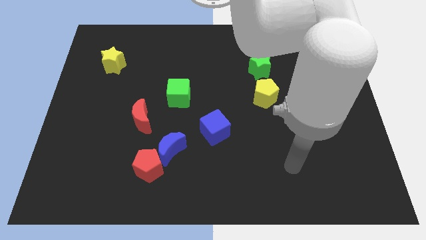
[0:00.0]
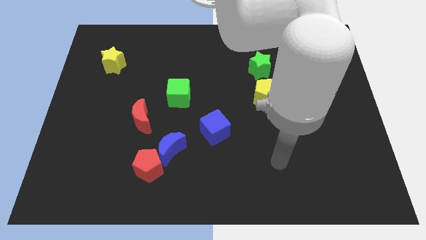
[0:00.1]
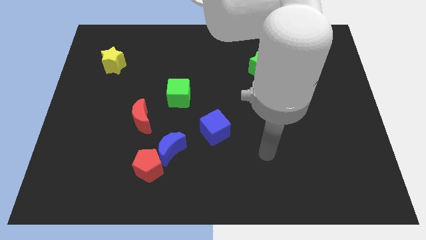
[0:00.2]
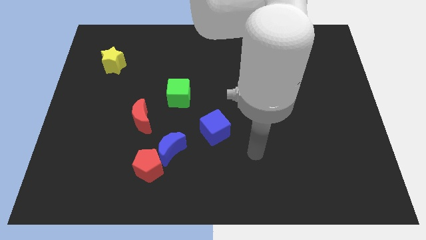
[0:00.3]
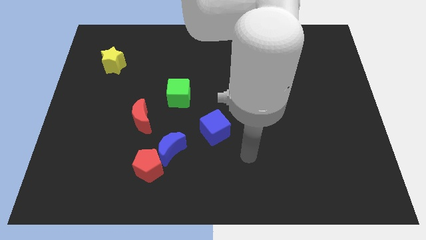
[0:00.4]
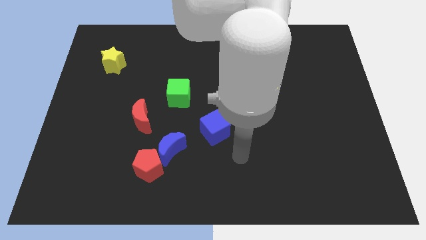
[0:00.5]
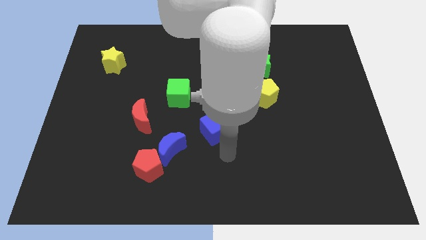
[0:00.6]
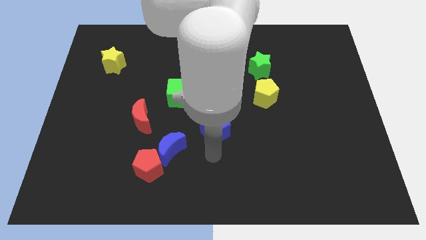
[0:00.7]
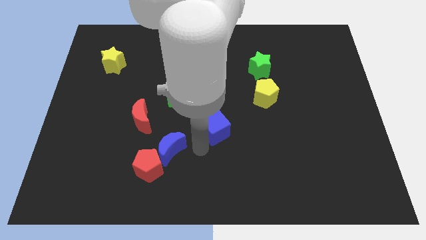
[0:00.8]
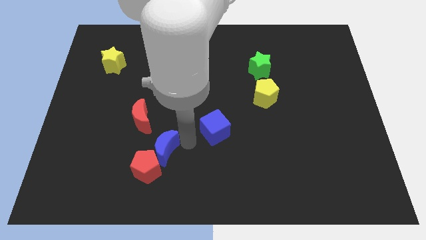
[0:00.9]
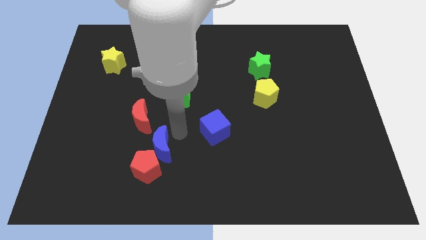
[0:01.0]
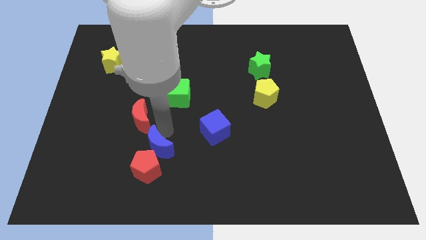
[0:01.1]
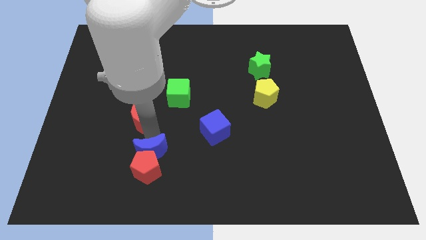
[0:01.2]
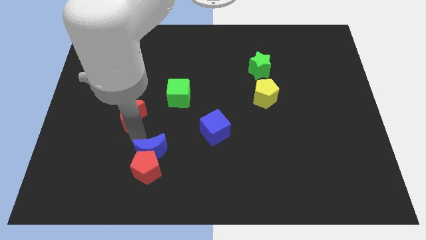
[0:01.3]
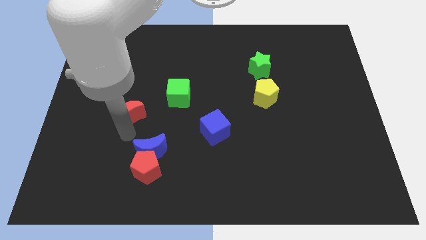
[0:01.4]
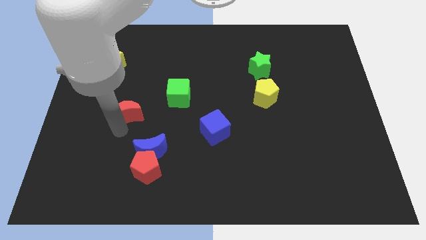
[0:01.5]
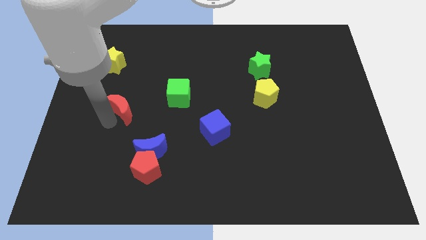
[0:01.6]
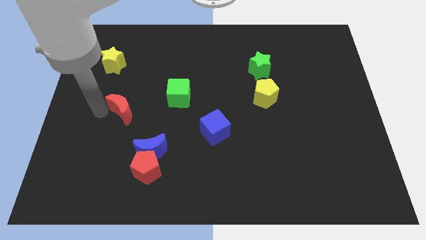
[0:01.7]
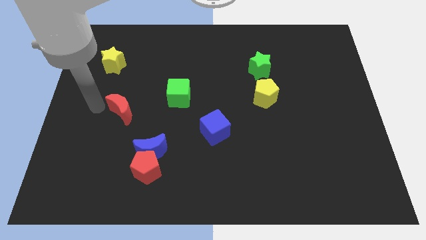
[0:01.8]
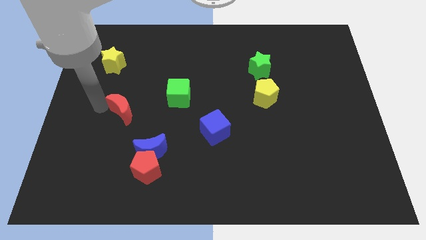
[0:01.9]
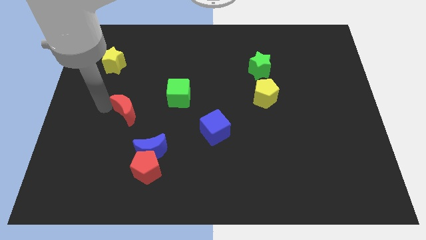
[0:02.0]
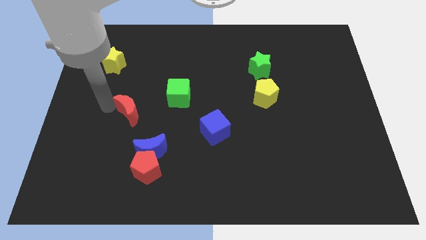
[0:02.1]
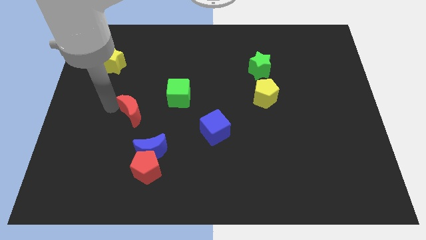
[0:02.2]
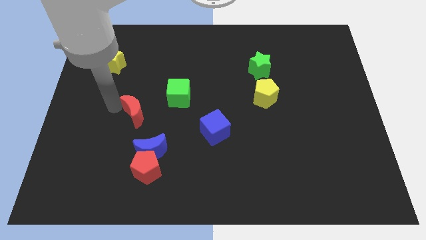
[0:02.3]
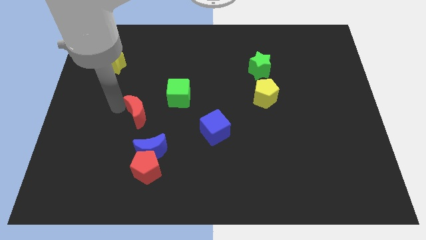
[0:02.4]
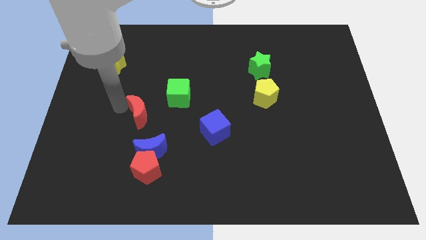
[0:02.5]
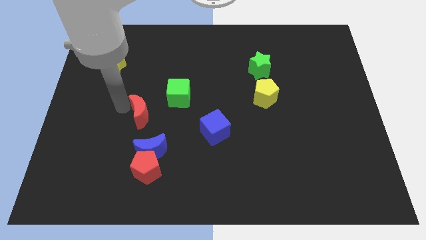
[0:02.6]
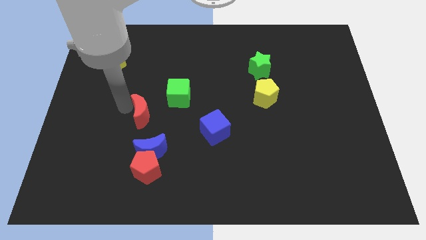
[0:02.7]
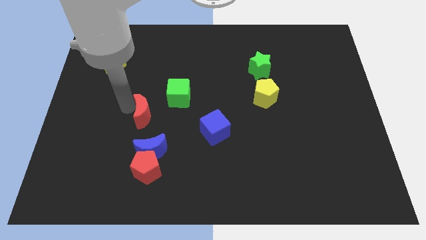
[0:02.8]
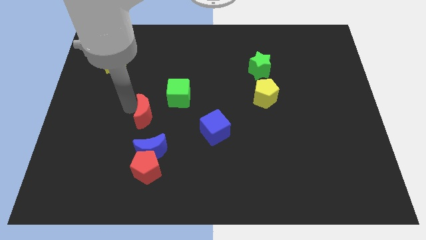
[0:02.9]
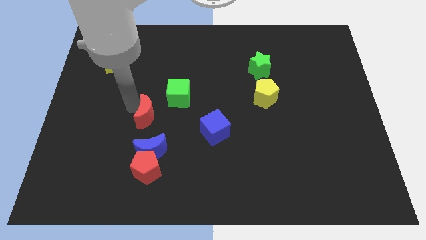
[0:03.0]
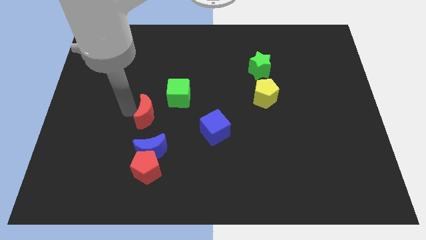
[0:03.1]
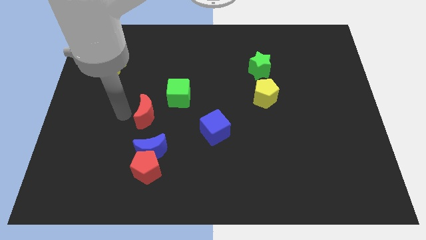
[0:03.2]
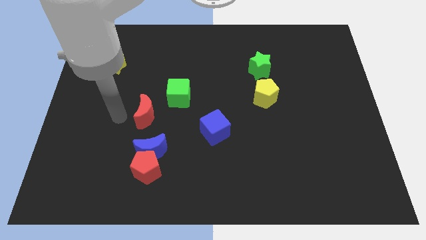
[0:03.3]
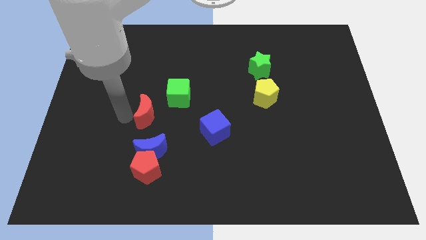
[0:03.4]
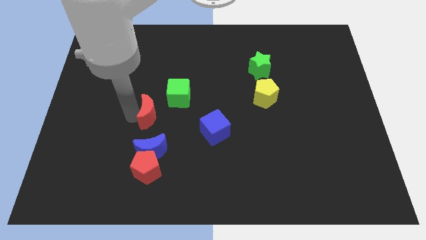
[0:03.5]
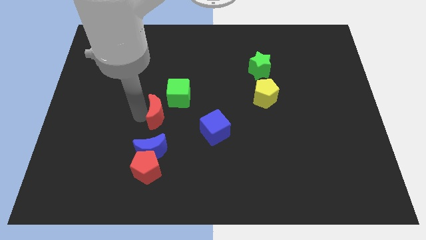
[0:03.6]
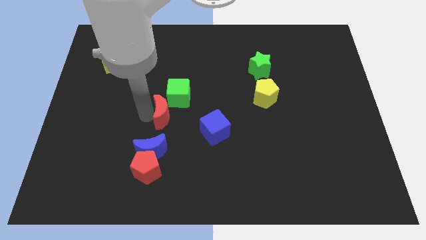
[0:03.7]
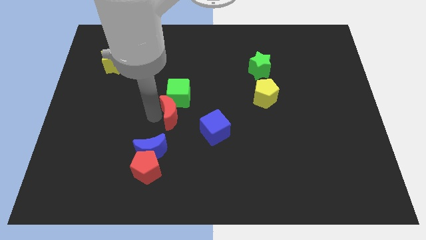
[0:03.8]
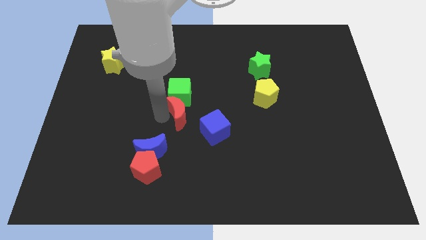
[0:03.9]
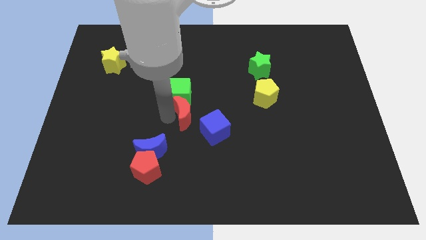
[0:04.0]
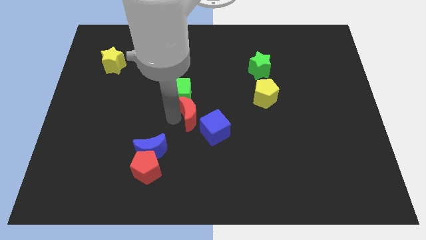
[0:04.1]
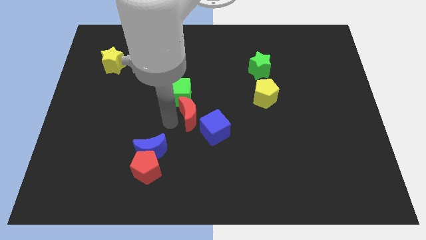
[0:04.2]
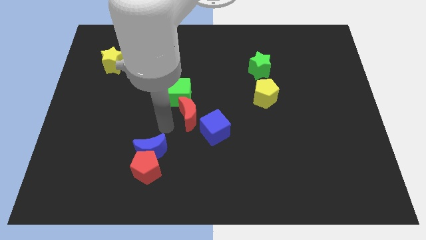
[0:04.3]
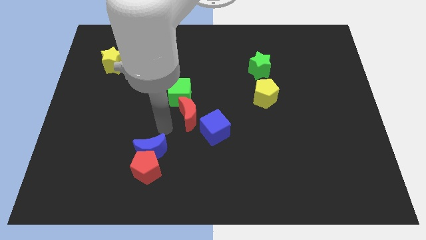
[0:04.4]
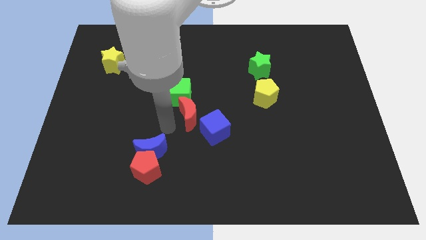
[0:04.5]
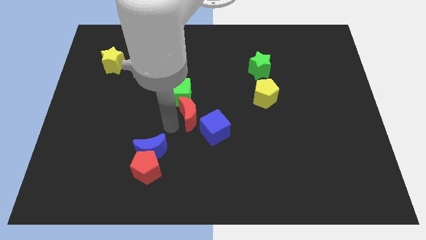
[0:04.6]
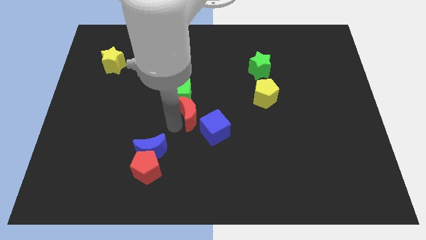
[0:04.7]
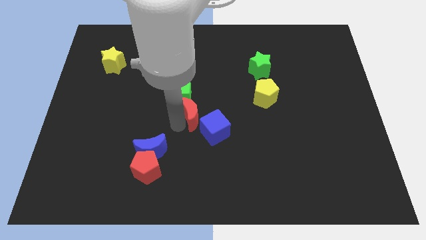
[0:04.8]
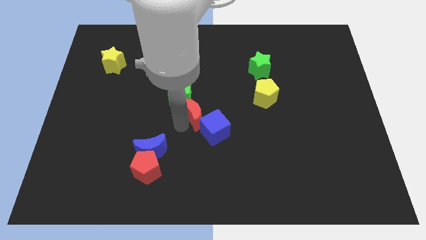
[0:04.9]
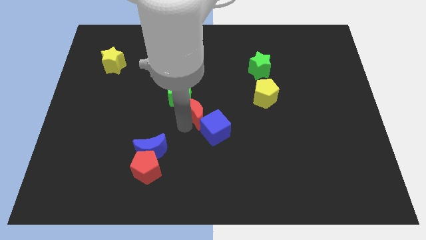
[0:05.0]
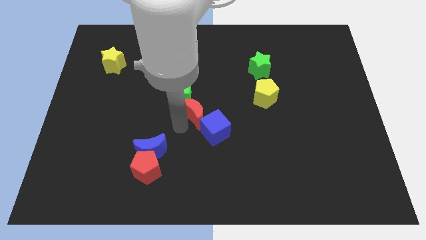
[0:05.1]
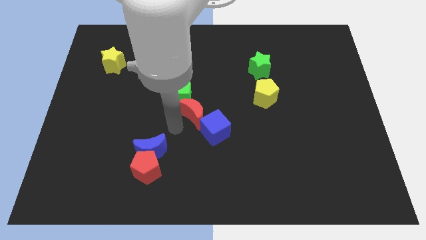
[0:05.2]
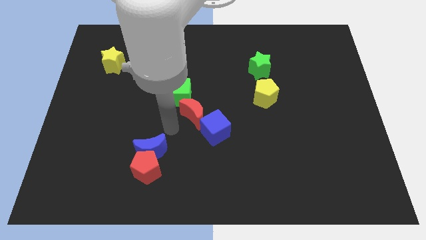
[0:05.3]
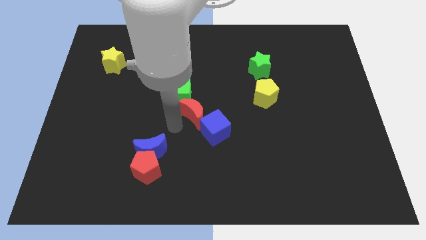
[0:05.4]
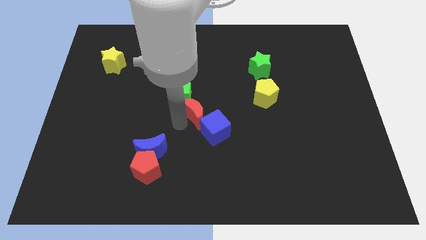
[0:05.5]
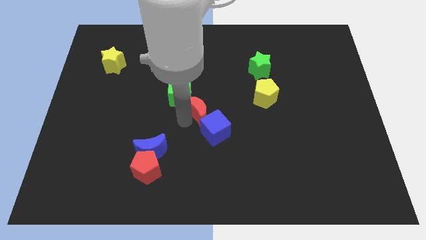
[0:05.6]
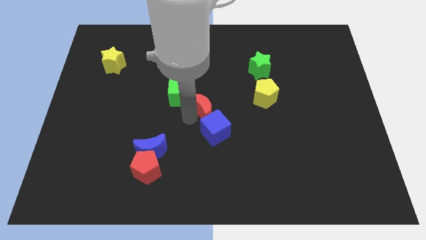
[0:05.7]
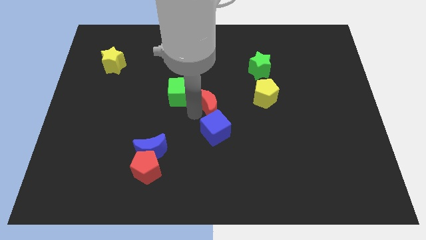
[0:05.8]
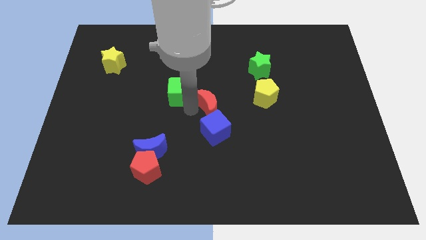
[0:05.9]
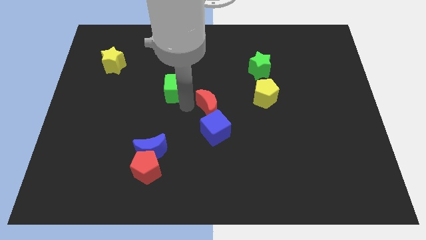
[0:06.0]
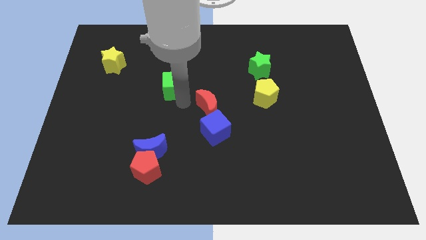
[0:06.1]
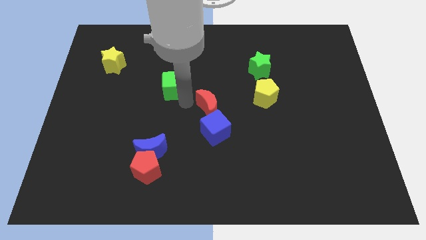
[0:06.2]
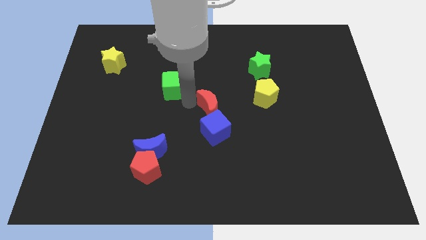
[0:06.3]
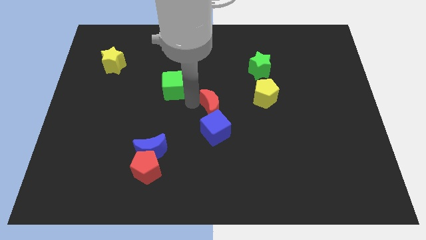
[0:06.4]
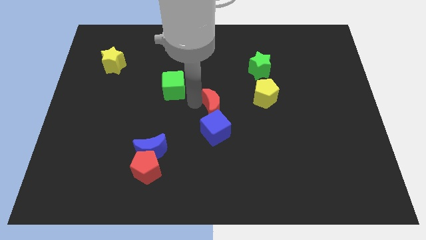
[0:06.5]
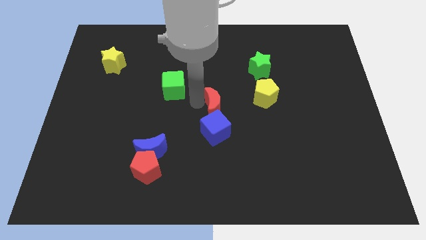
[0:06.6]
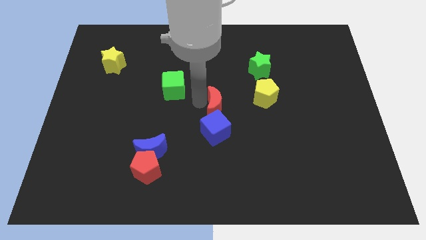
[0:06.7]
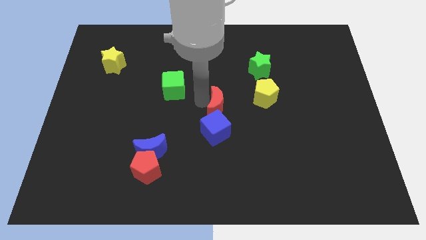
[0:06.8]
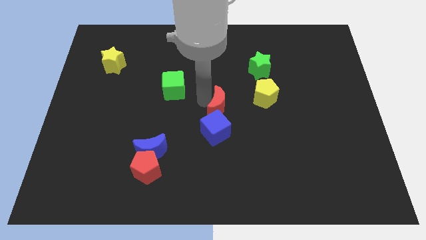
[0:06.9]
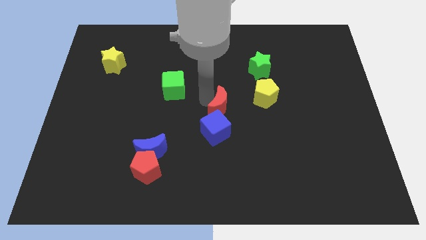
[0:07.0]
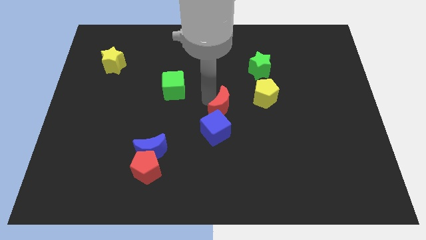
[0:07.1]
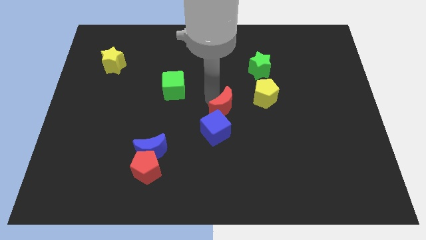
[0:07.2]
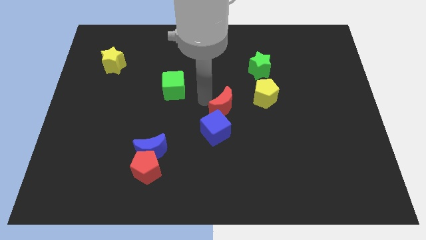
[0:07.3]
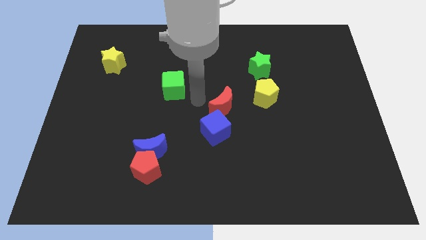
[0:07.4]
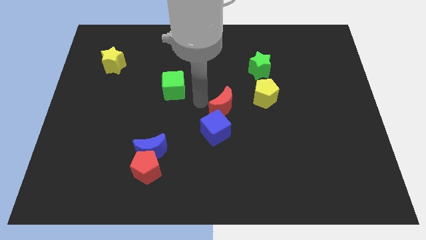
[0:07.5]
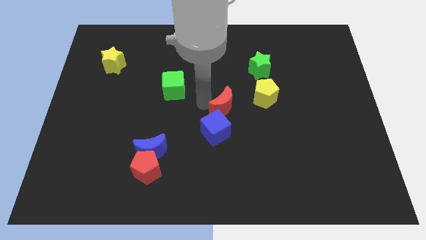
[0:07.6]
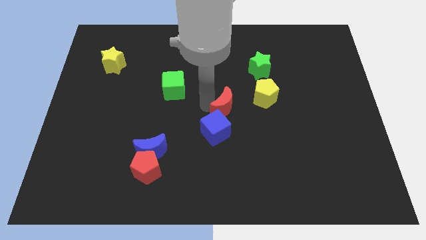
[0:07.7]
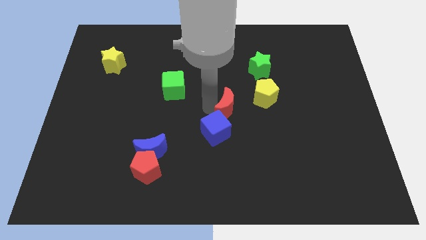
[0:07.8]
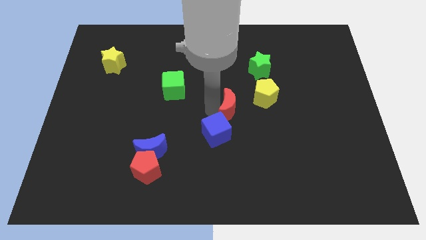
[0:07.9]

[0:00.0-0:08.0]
push the red moon to the right

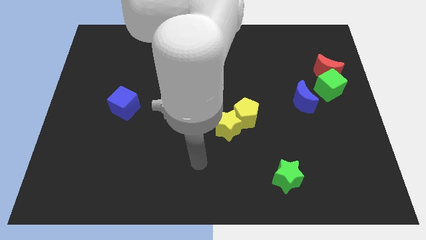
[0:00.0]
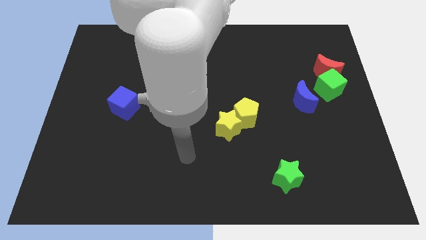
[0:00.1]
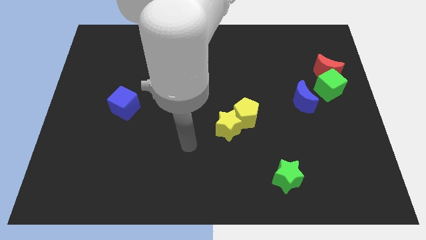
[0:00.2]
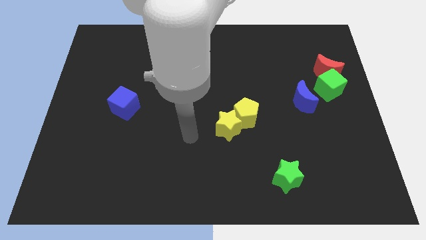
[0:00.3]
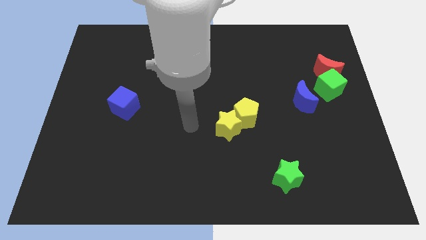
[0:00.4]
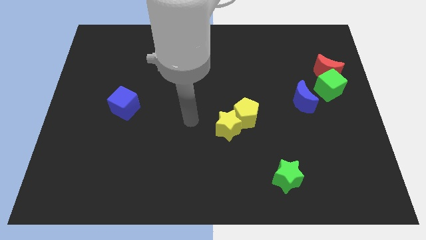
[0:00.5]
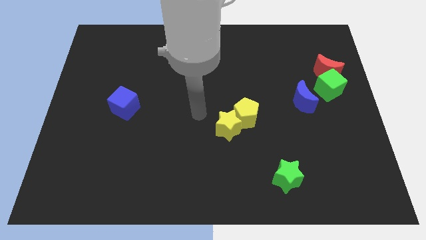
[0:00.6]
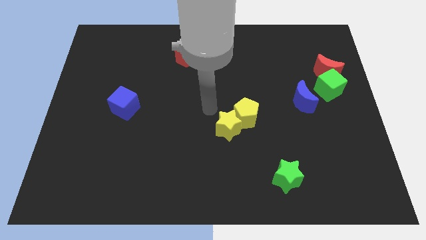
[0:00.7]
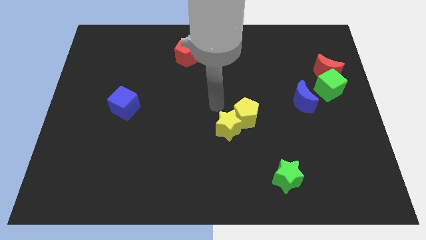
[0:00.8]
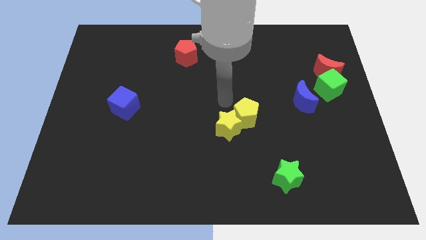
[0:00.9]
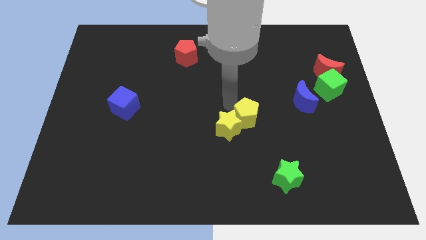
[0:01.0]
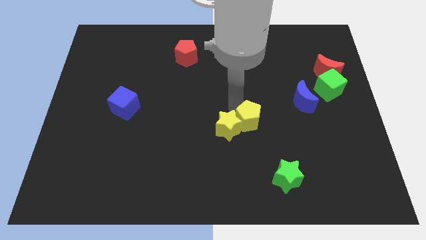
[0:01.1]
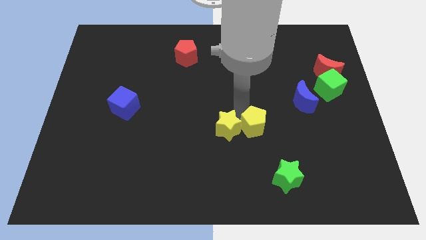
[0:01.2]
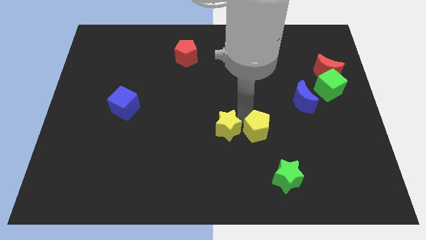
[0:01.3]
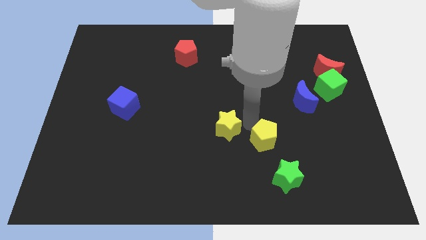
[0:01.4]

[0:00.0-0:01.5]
slightly slide the yellow pentagon downwards and to the right diagonally
